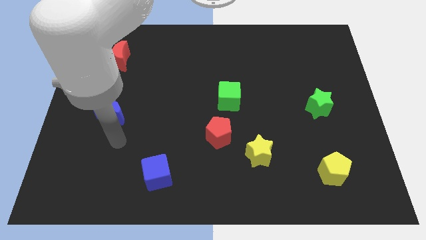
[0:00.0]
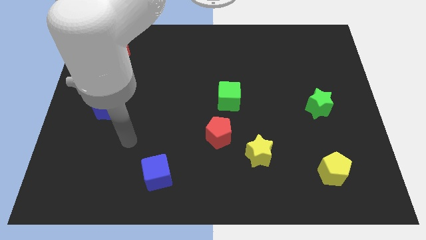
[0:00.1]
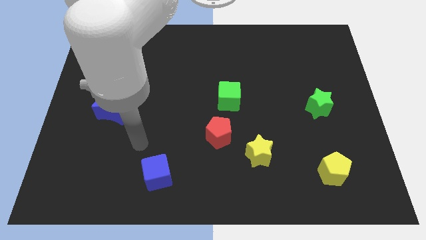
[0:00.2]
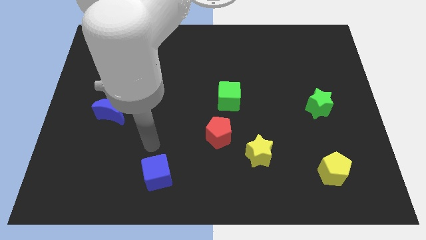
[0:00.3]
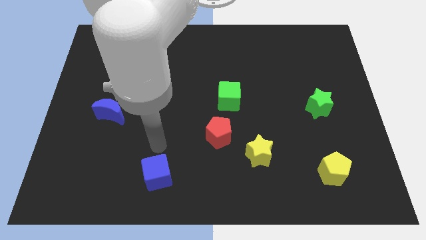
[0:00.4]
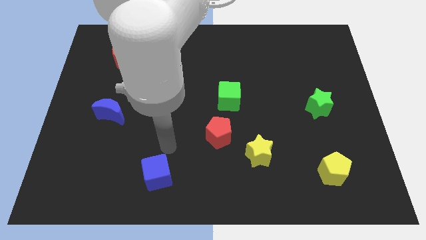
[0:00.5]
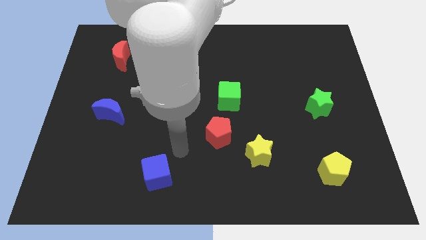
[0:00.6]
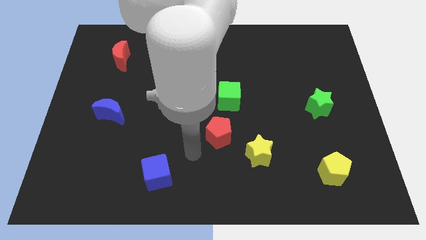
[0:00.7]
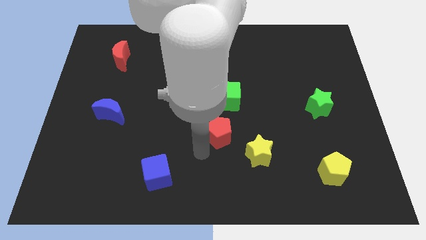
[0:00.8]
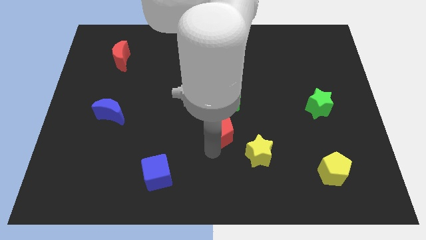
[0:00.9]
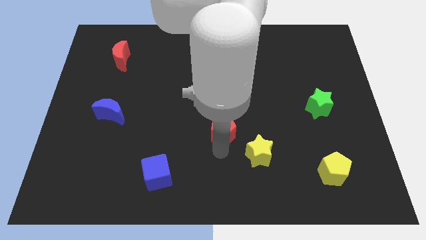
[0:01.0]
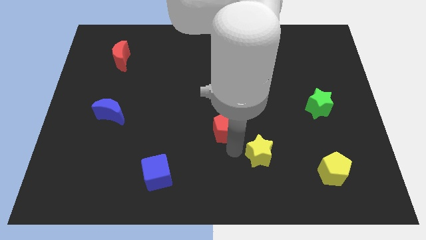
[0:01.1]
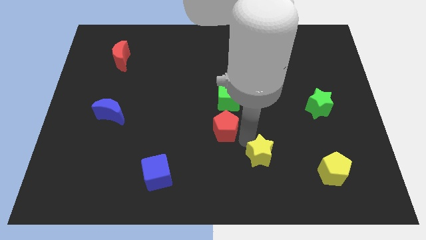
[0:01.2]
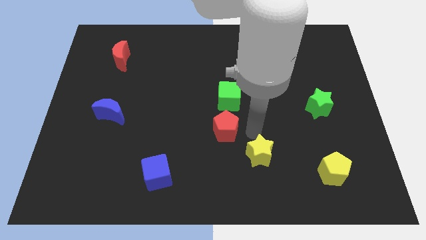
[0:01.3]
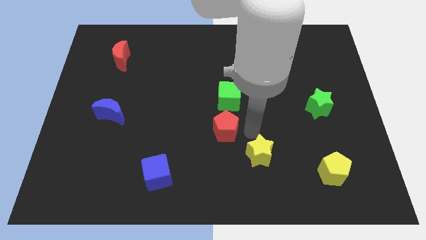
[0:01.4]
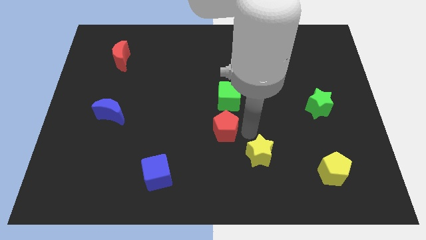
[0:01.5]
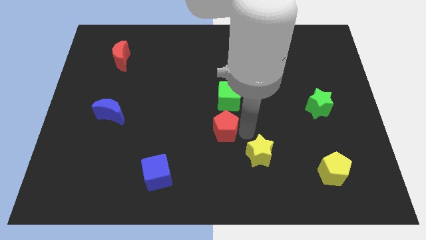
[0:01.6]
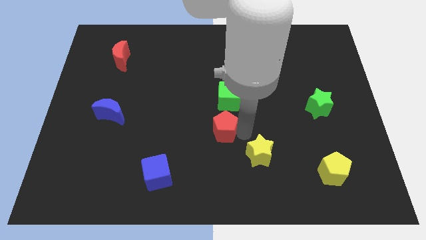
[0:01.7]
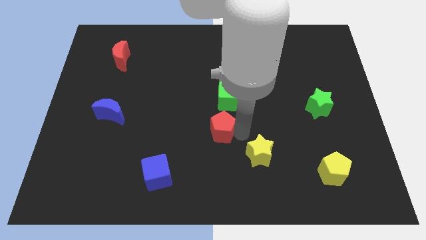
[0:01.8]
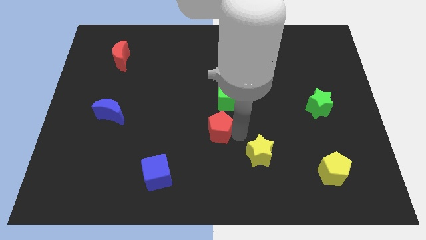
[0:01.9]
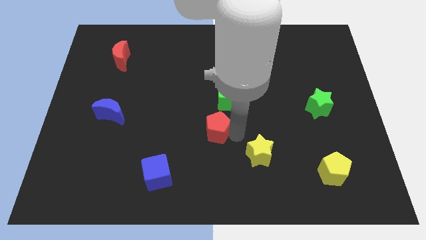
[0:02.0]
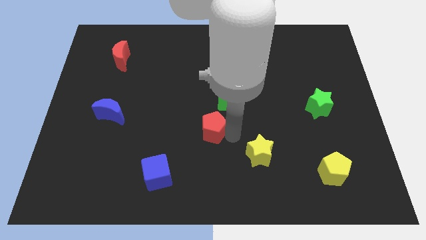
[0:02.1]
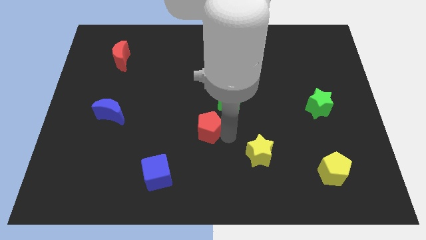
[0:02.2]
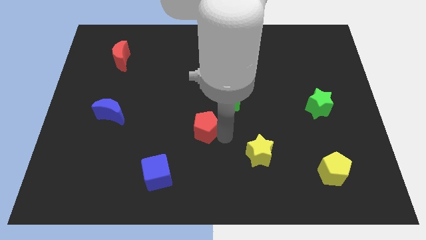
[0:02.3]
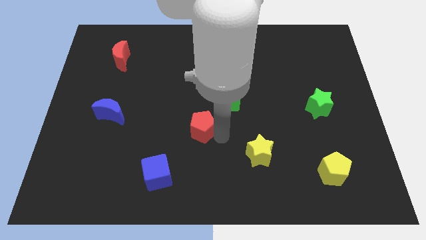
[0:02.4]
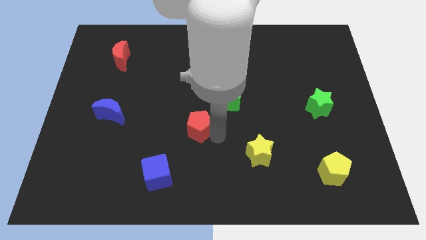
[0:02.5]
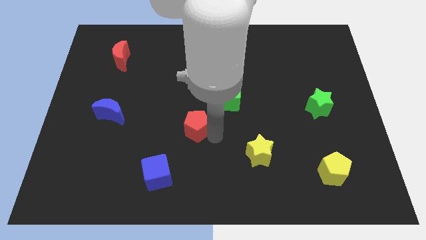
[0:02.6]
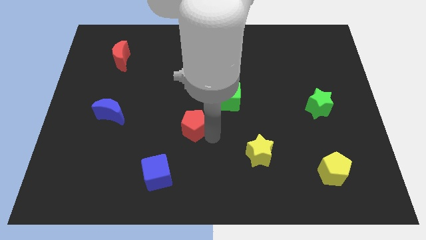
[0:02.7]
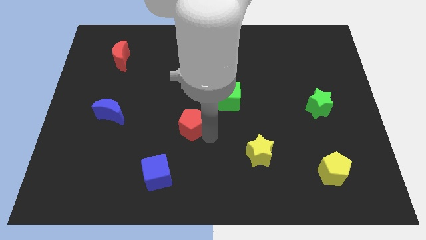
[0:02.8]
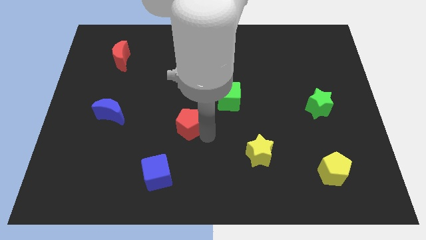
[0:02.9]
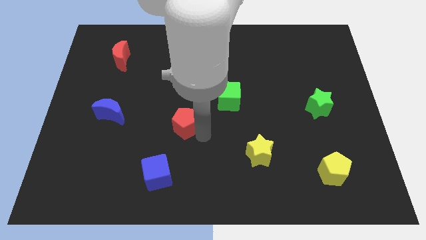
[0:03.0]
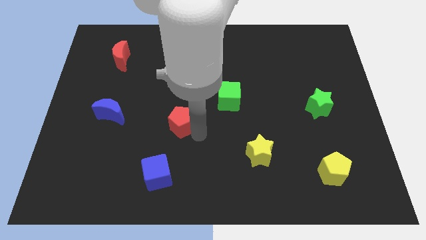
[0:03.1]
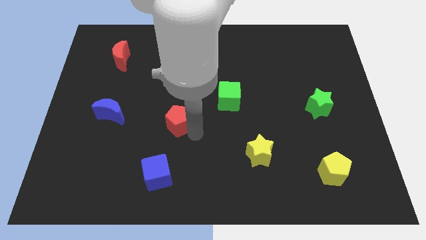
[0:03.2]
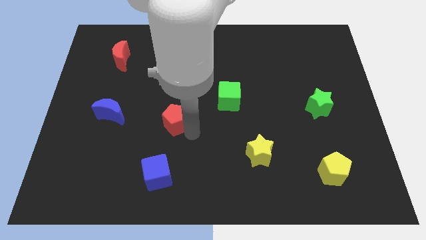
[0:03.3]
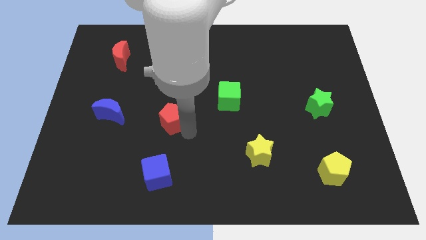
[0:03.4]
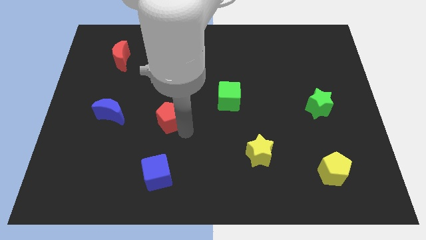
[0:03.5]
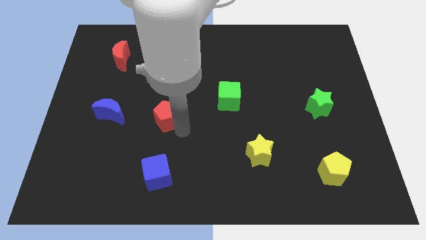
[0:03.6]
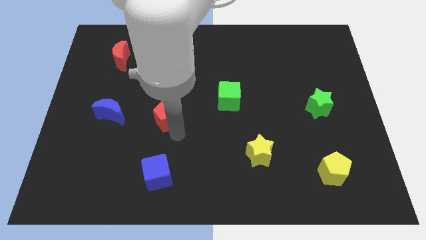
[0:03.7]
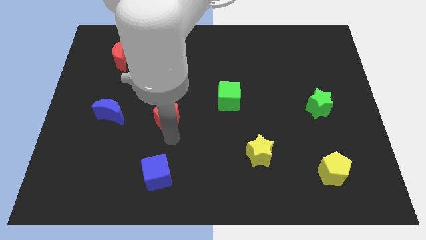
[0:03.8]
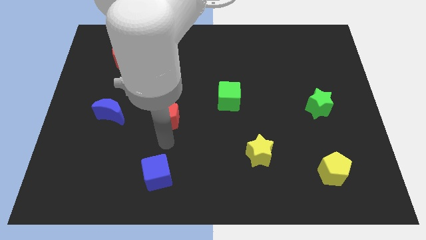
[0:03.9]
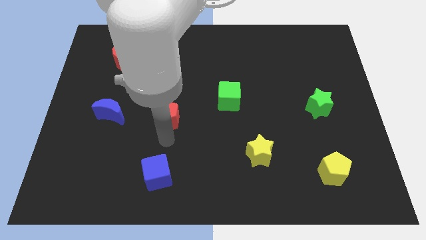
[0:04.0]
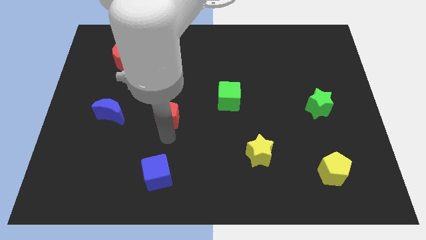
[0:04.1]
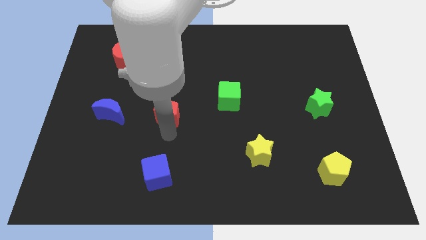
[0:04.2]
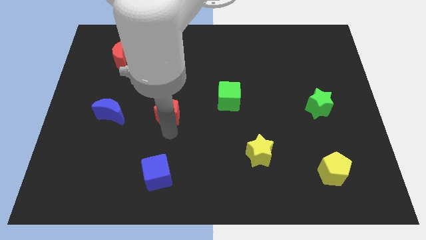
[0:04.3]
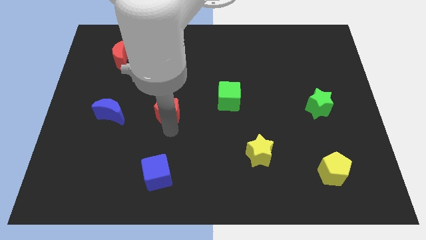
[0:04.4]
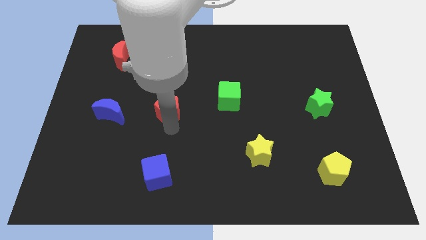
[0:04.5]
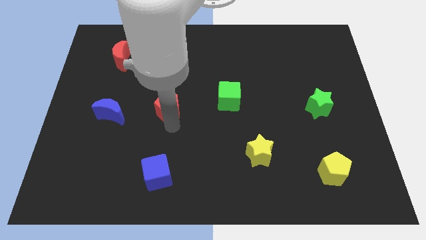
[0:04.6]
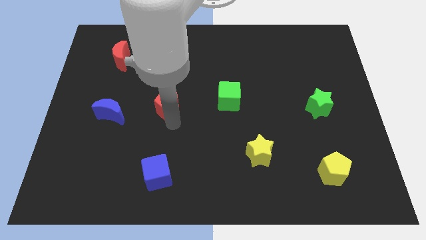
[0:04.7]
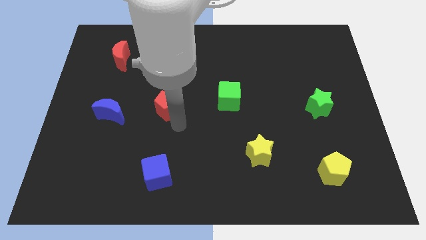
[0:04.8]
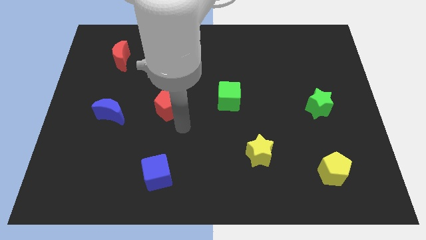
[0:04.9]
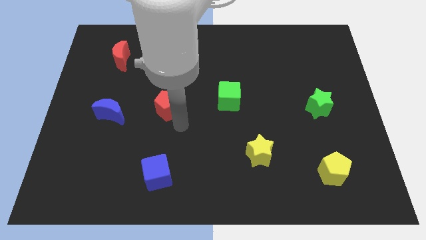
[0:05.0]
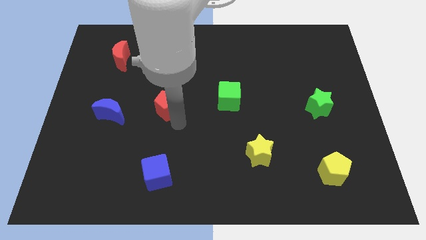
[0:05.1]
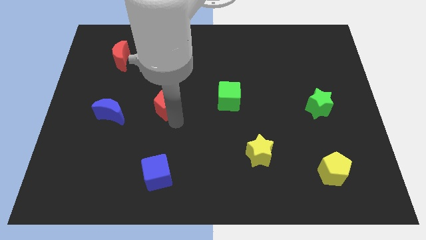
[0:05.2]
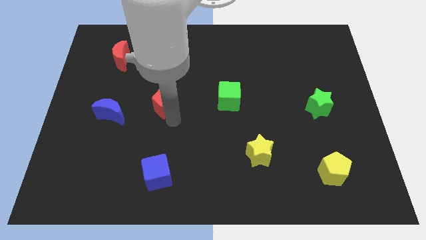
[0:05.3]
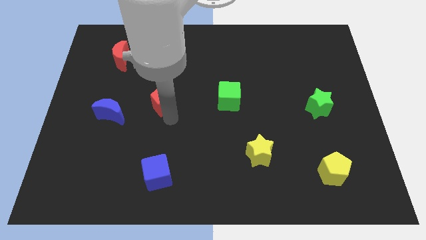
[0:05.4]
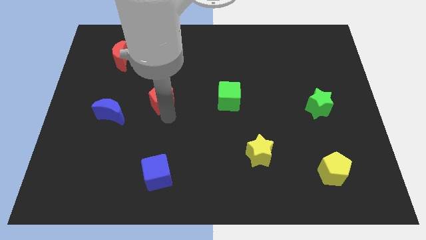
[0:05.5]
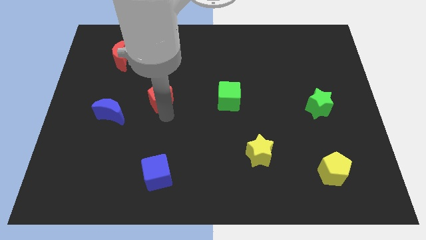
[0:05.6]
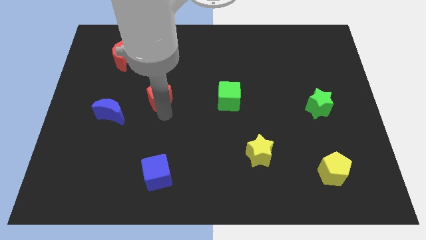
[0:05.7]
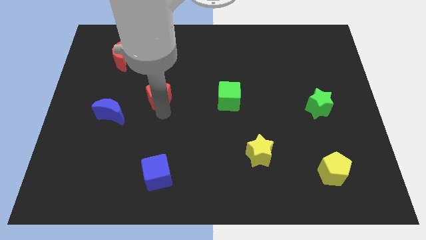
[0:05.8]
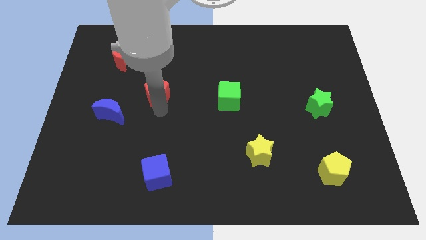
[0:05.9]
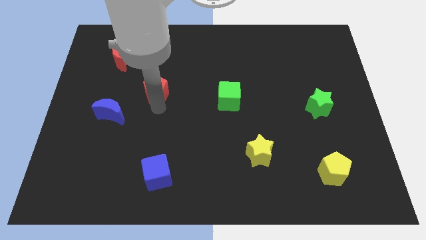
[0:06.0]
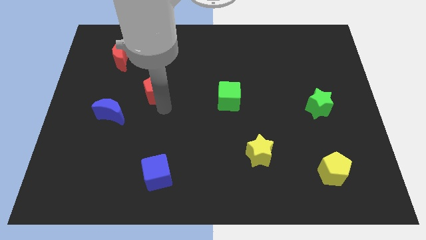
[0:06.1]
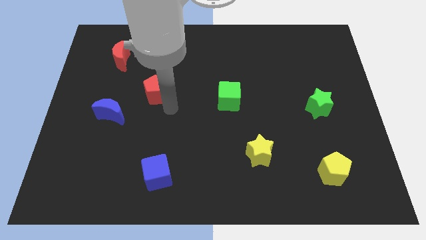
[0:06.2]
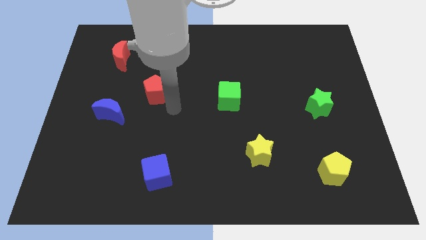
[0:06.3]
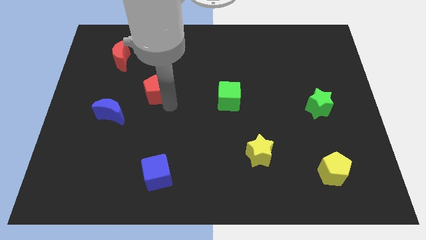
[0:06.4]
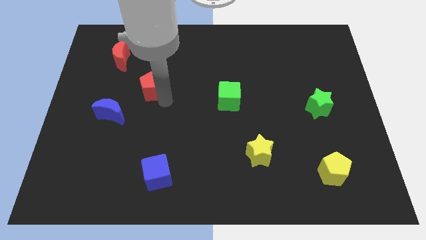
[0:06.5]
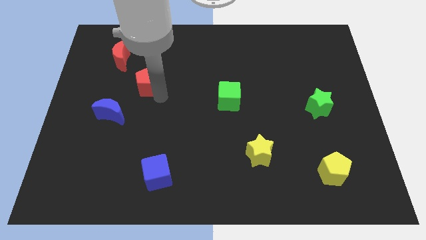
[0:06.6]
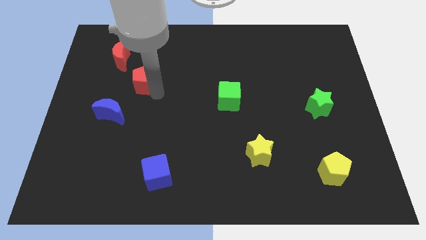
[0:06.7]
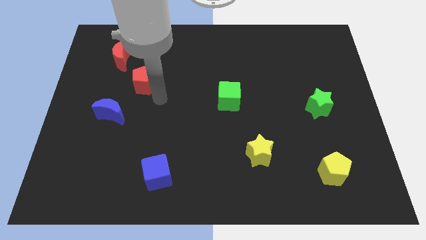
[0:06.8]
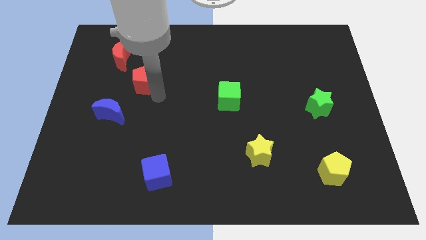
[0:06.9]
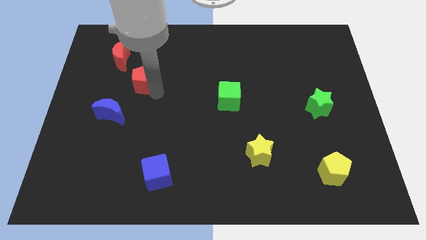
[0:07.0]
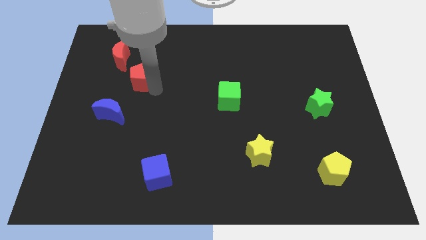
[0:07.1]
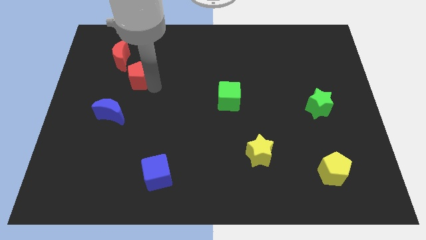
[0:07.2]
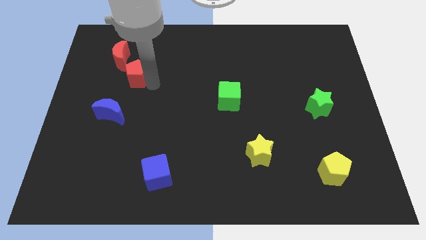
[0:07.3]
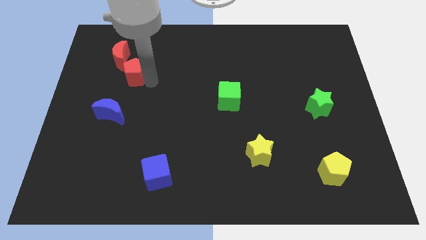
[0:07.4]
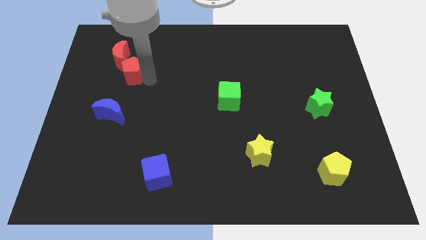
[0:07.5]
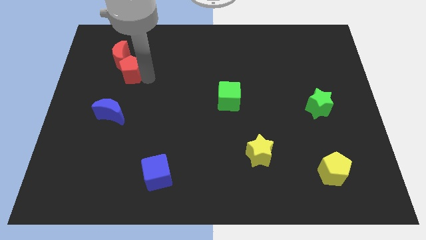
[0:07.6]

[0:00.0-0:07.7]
put the red pentagon next to the red moon
